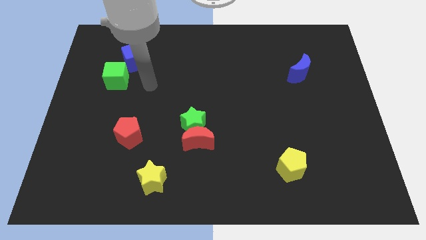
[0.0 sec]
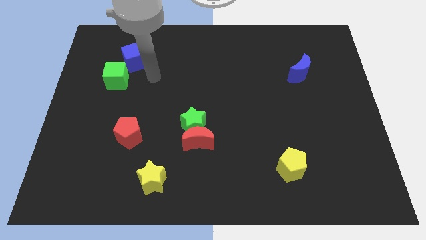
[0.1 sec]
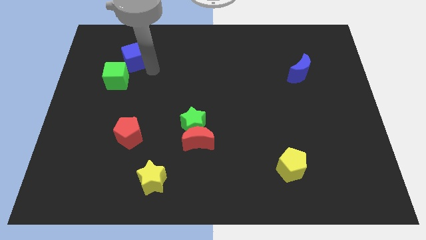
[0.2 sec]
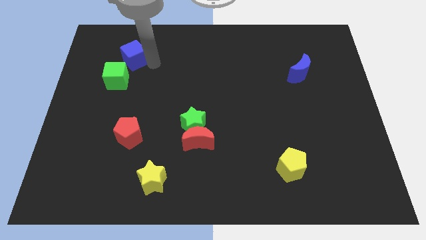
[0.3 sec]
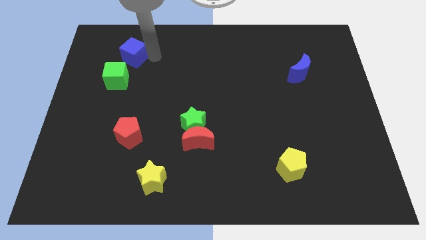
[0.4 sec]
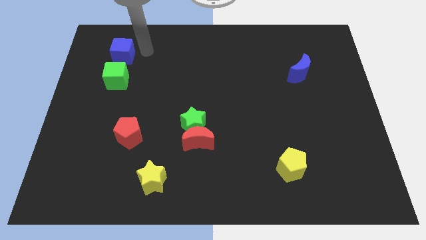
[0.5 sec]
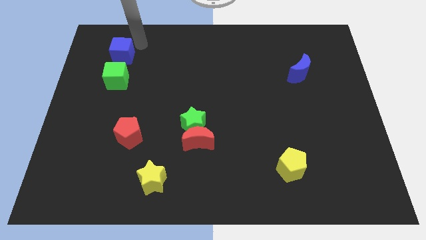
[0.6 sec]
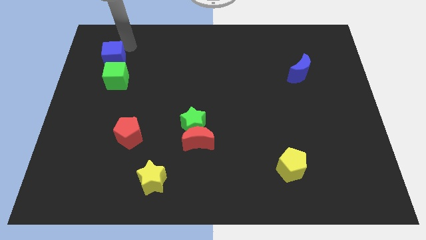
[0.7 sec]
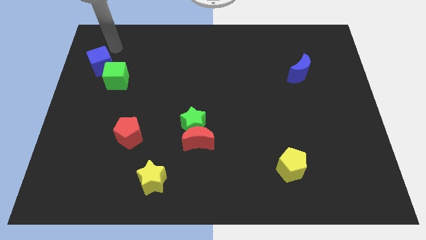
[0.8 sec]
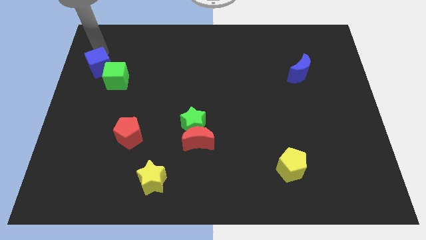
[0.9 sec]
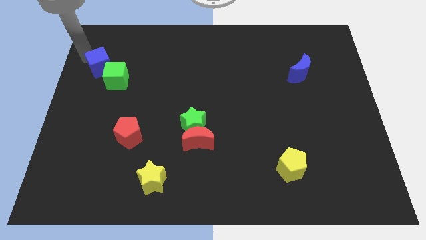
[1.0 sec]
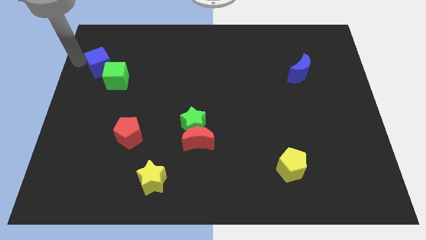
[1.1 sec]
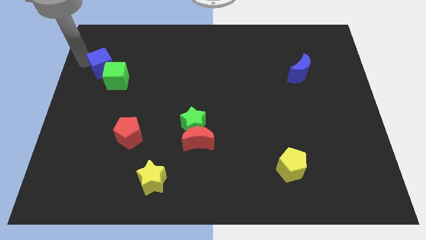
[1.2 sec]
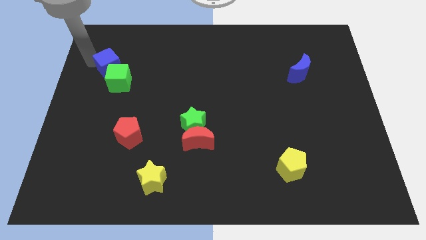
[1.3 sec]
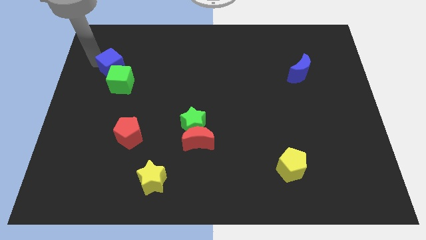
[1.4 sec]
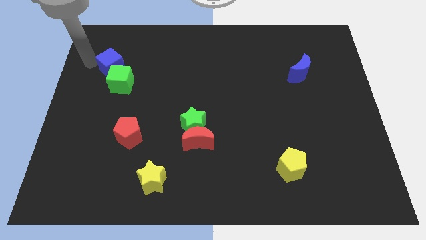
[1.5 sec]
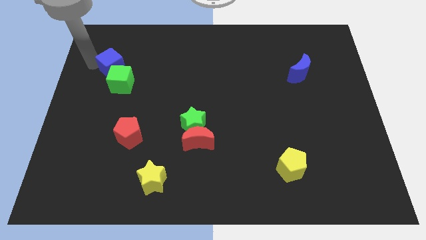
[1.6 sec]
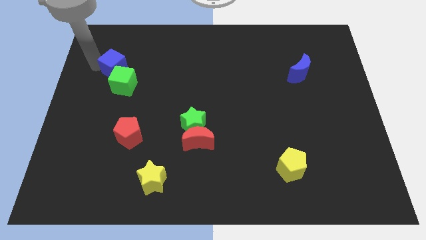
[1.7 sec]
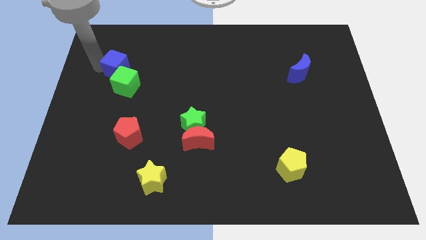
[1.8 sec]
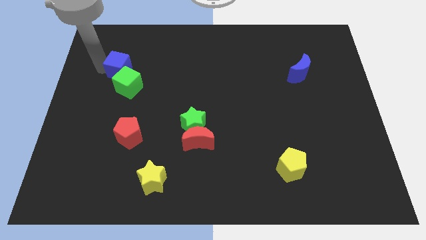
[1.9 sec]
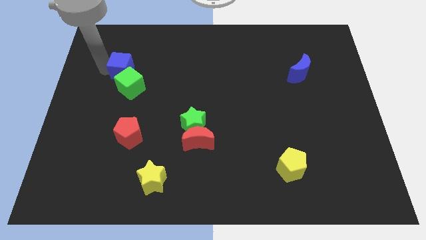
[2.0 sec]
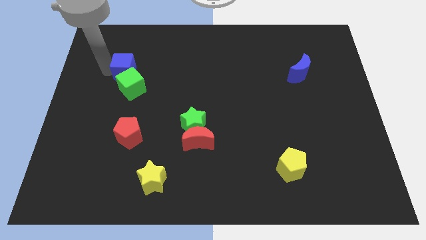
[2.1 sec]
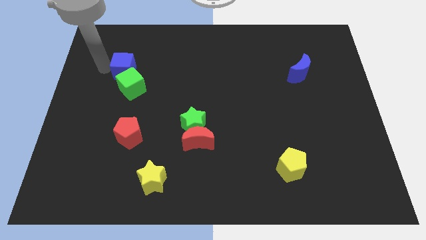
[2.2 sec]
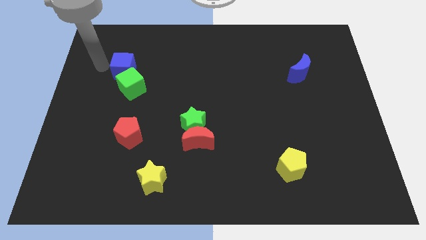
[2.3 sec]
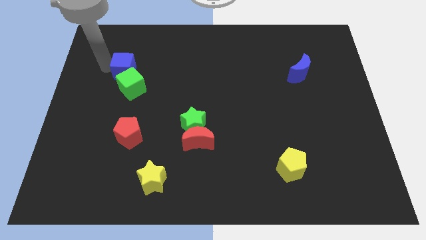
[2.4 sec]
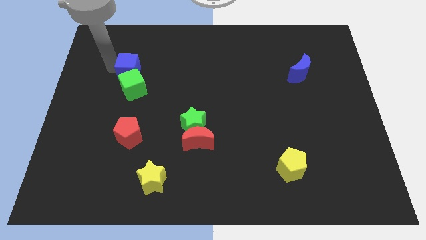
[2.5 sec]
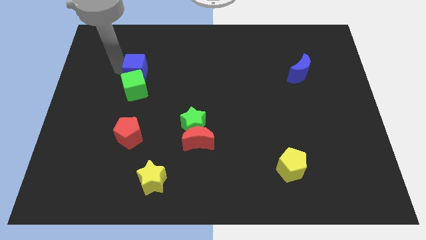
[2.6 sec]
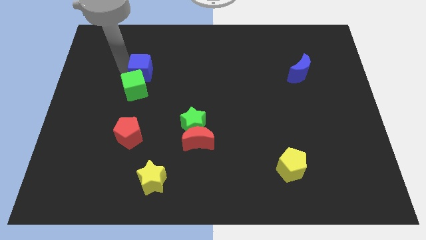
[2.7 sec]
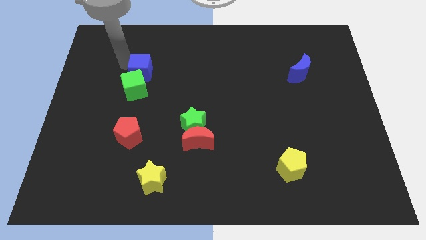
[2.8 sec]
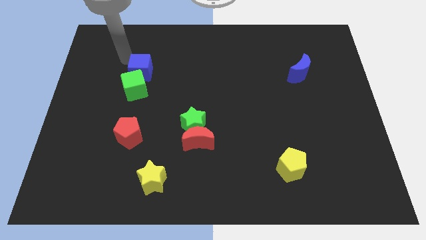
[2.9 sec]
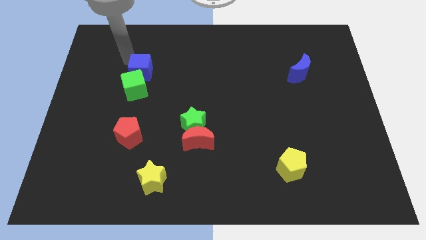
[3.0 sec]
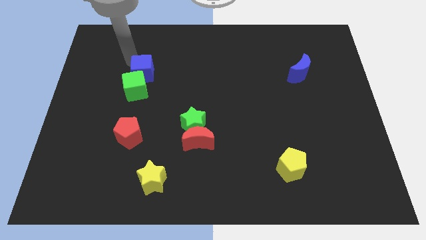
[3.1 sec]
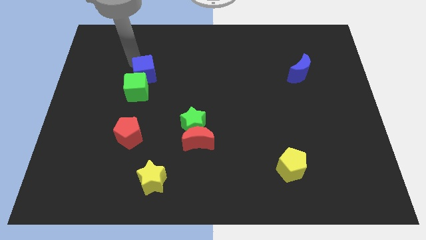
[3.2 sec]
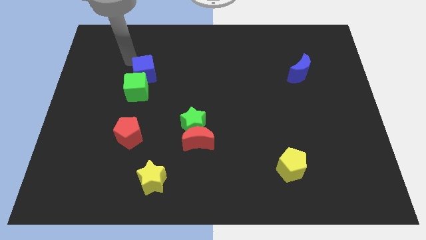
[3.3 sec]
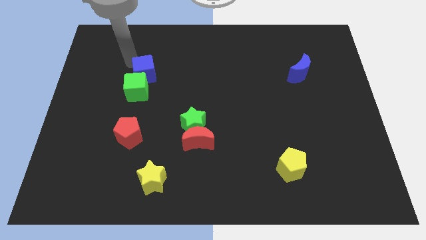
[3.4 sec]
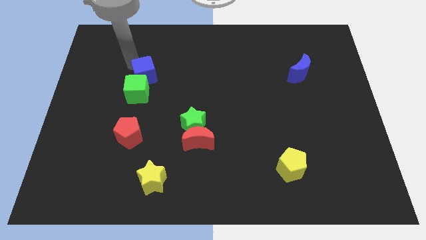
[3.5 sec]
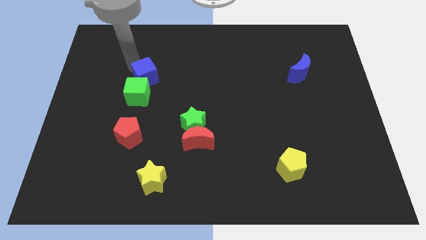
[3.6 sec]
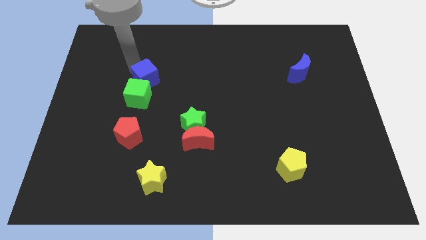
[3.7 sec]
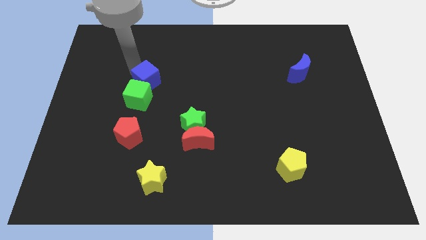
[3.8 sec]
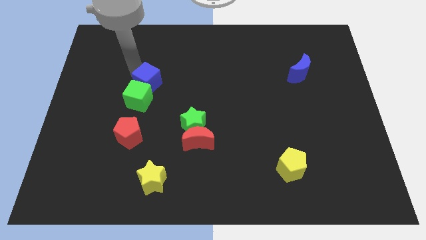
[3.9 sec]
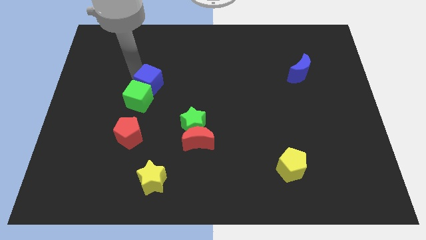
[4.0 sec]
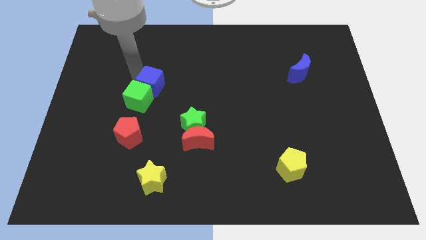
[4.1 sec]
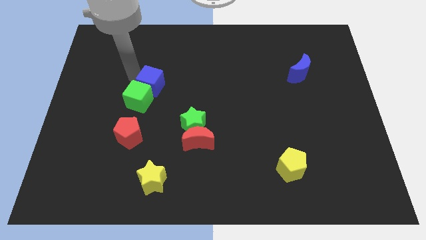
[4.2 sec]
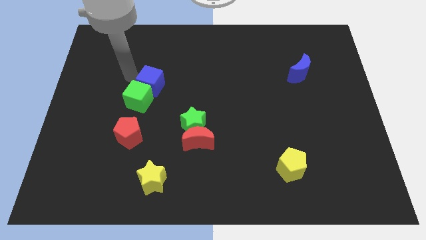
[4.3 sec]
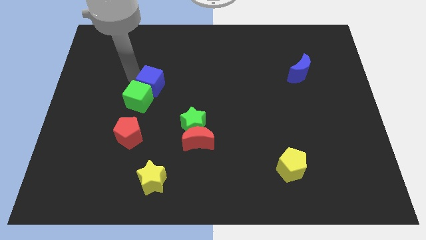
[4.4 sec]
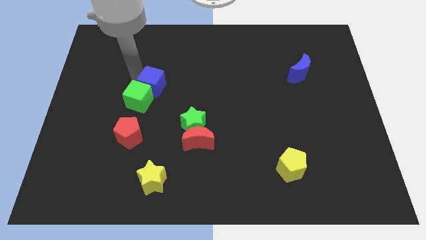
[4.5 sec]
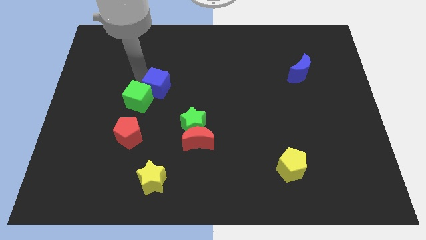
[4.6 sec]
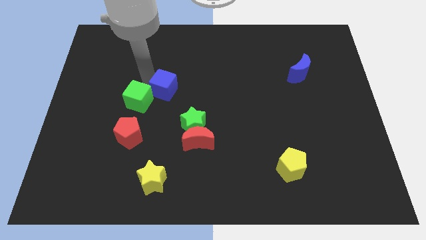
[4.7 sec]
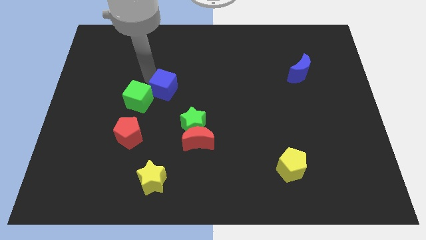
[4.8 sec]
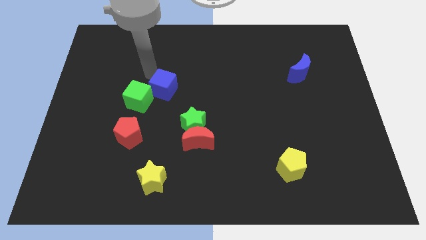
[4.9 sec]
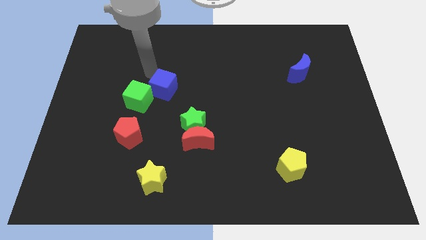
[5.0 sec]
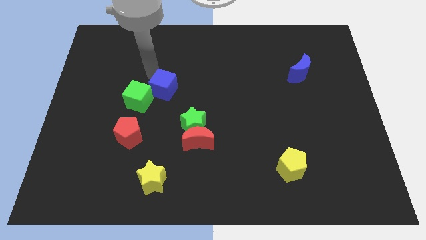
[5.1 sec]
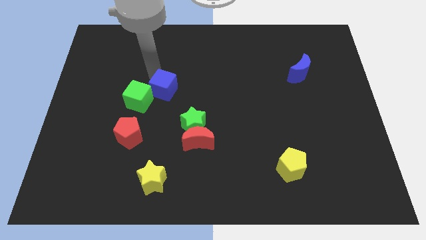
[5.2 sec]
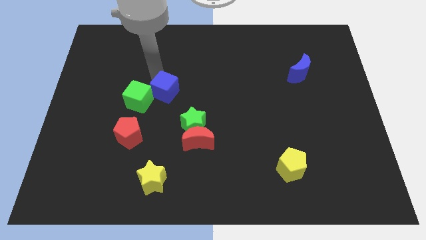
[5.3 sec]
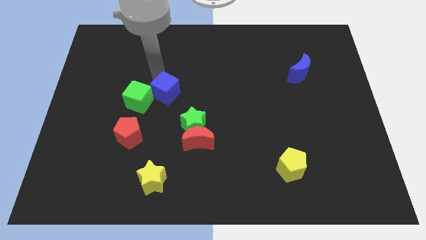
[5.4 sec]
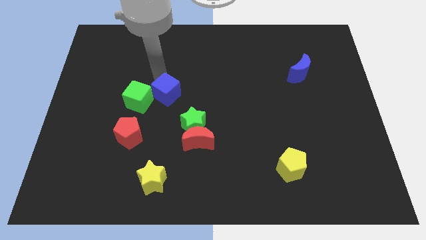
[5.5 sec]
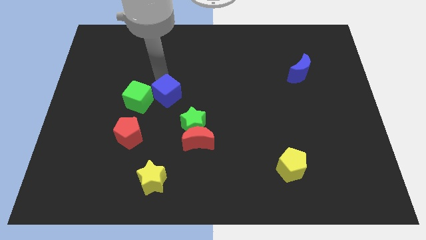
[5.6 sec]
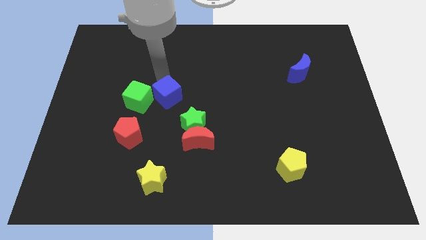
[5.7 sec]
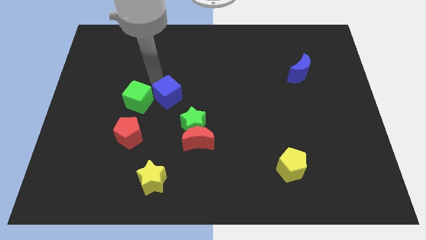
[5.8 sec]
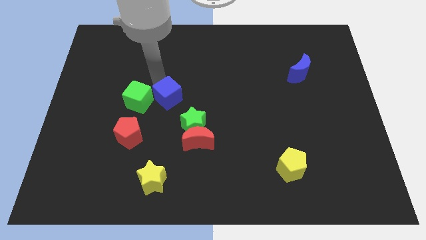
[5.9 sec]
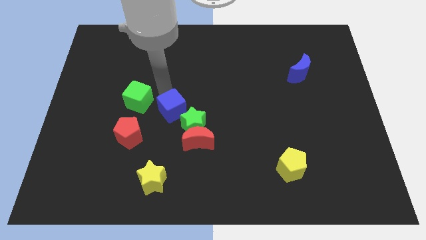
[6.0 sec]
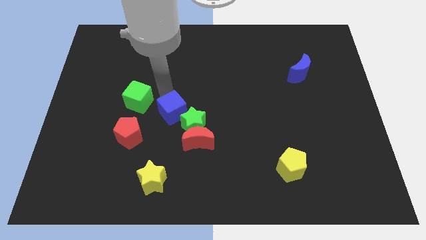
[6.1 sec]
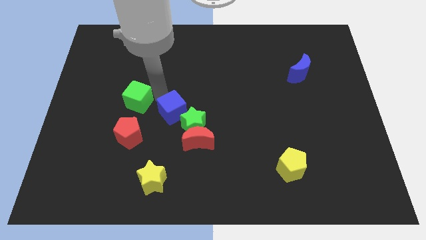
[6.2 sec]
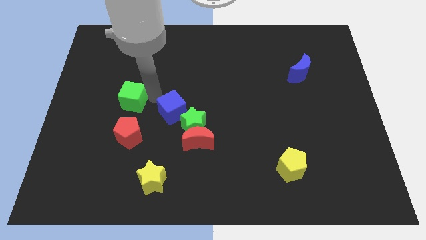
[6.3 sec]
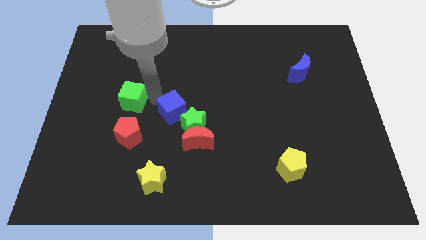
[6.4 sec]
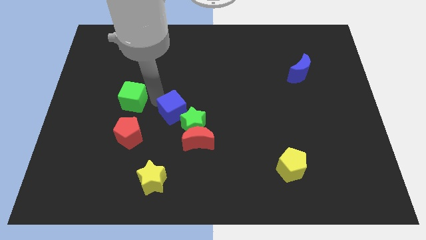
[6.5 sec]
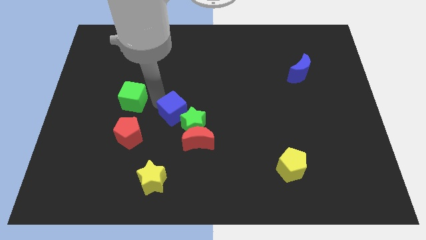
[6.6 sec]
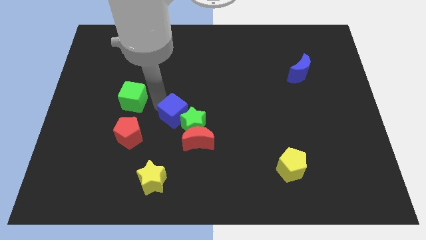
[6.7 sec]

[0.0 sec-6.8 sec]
slide the blue cube close to the green star
